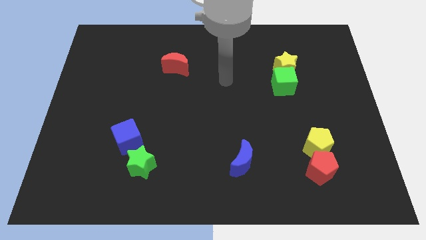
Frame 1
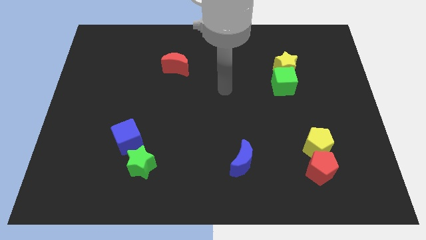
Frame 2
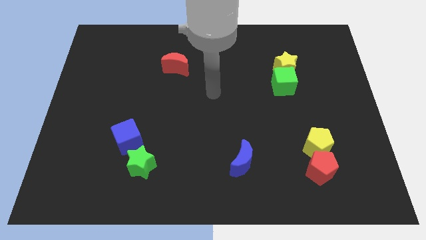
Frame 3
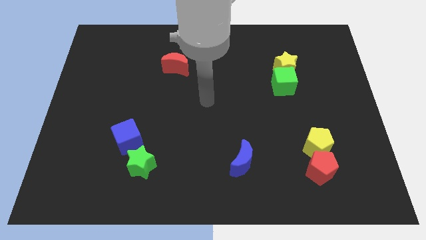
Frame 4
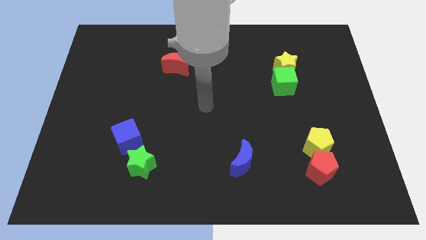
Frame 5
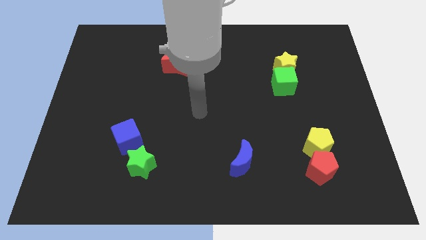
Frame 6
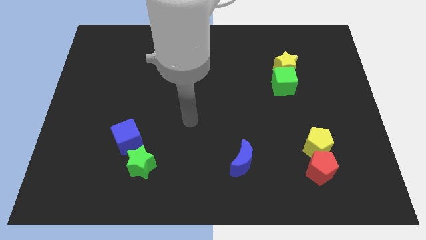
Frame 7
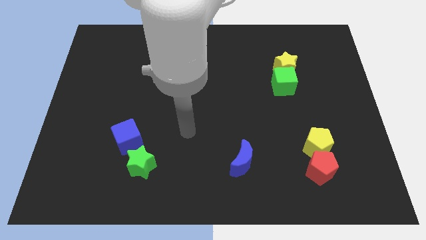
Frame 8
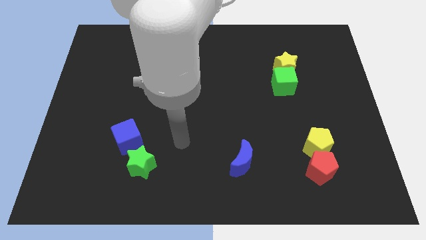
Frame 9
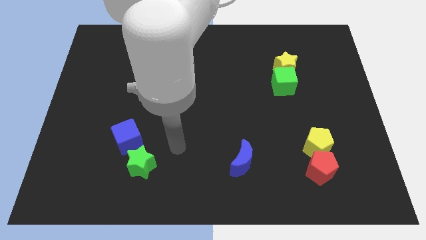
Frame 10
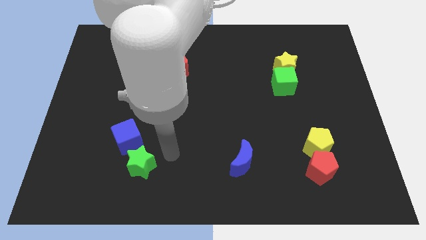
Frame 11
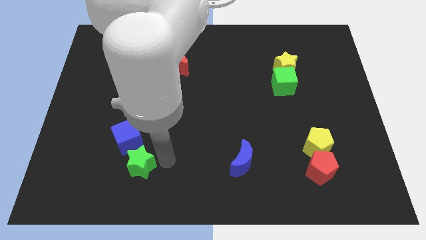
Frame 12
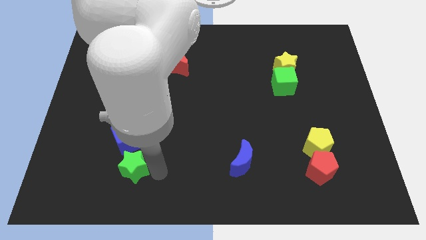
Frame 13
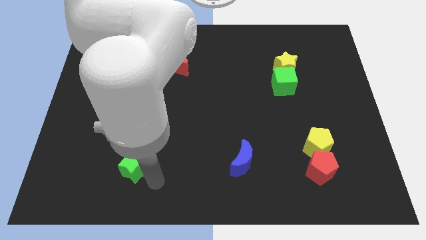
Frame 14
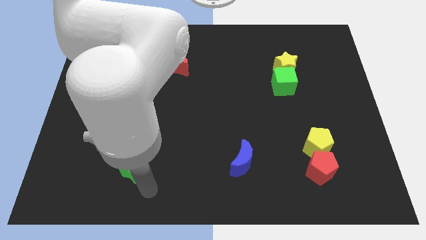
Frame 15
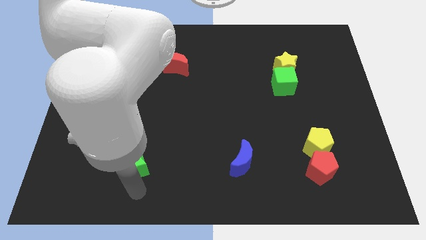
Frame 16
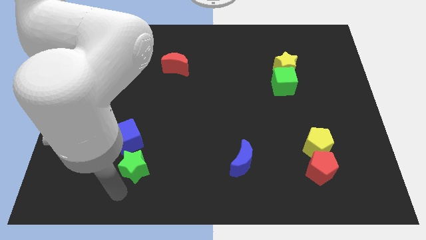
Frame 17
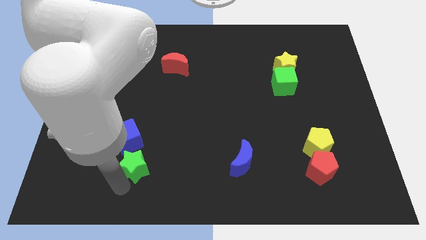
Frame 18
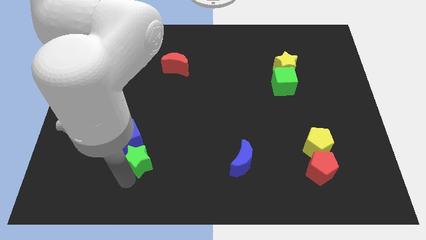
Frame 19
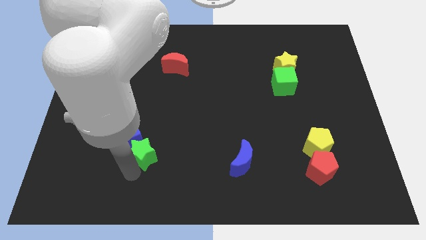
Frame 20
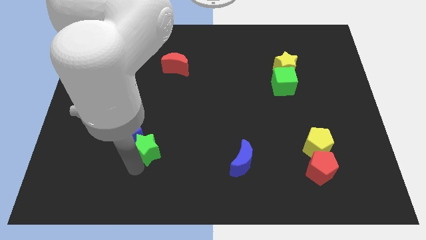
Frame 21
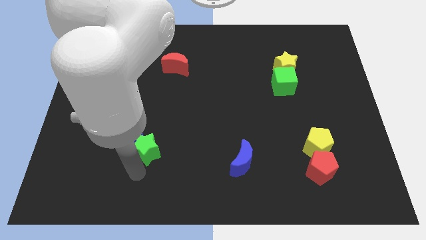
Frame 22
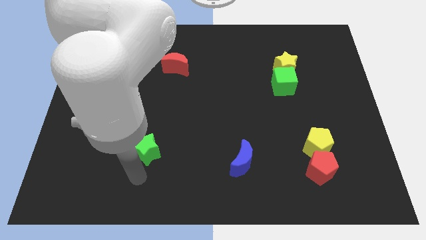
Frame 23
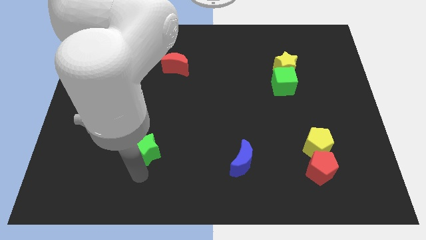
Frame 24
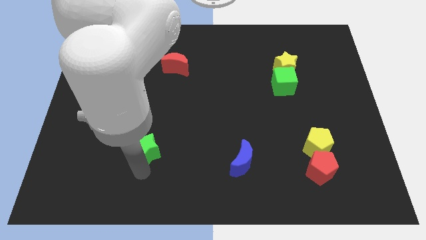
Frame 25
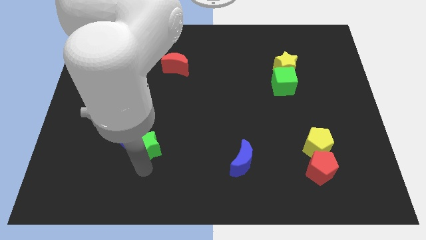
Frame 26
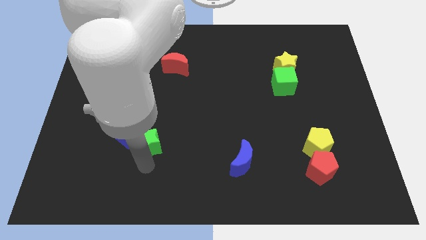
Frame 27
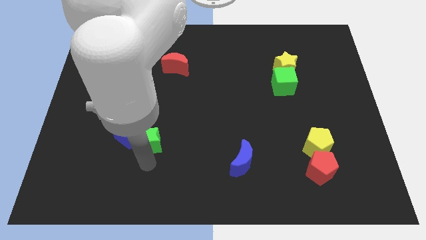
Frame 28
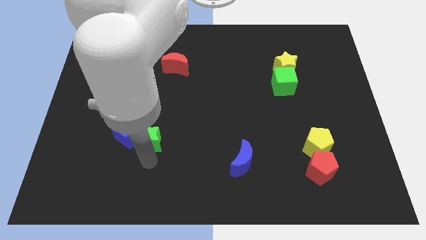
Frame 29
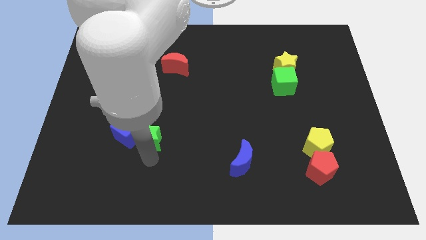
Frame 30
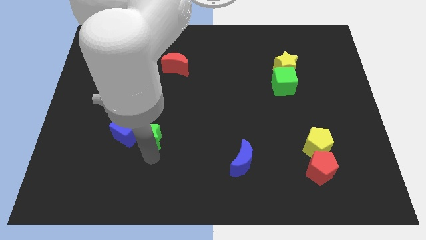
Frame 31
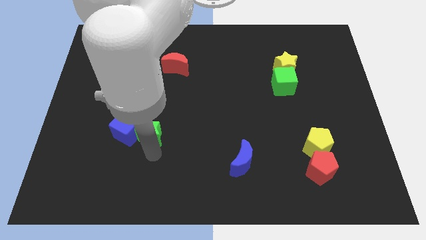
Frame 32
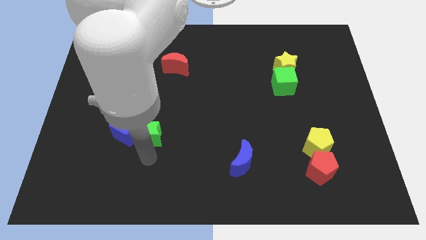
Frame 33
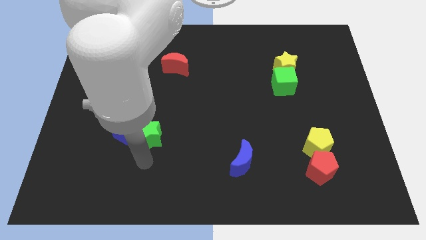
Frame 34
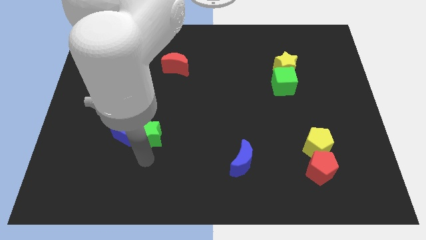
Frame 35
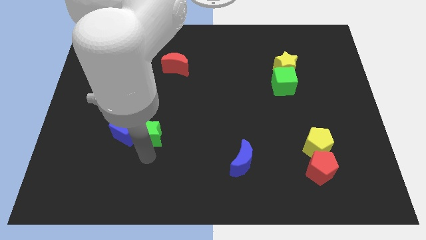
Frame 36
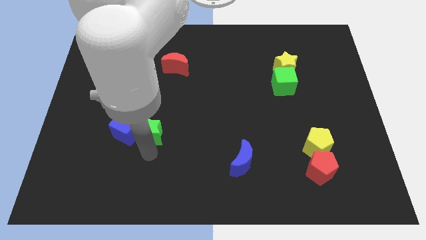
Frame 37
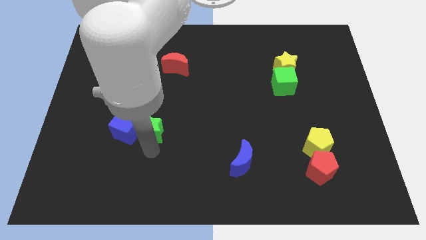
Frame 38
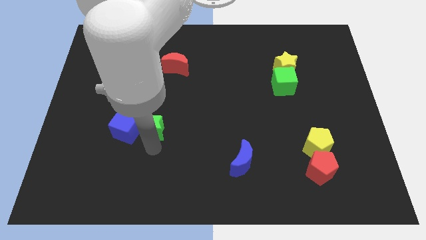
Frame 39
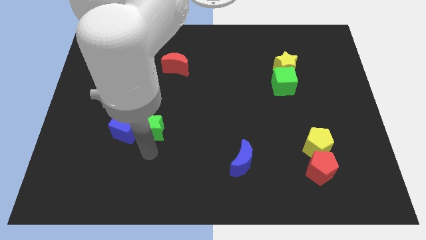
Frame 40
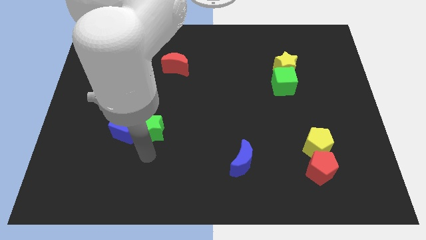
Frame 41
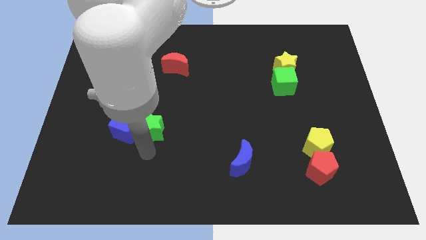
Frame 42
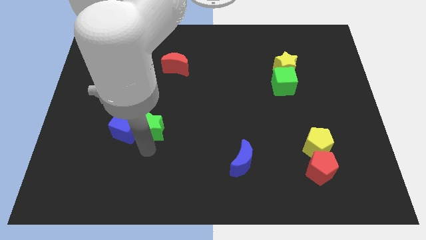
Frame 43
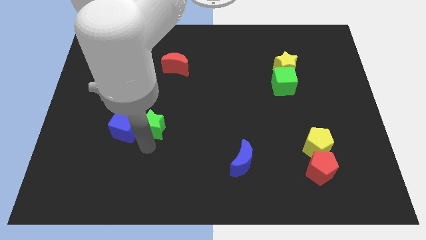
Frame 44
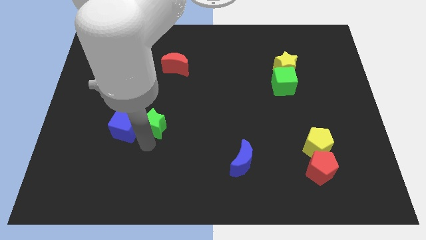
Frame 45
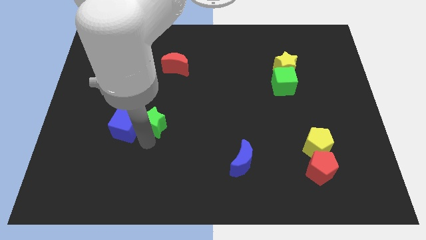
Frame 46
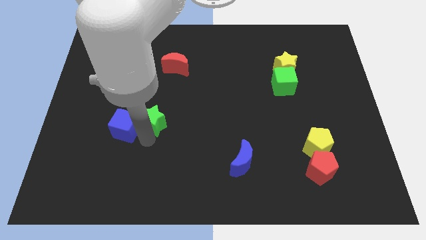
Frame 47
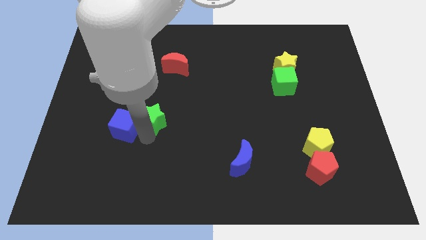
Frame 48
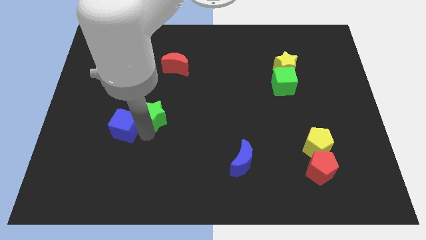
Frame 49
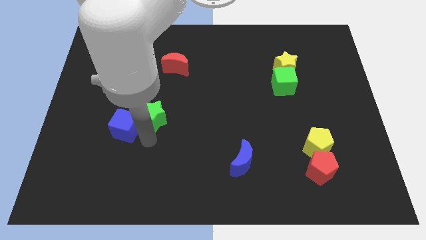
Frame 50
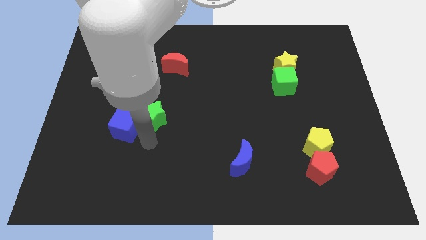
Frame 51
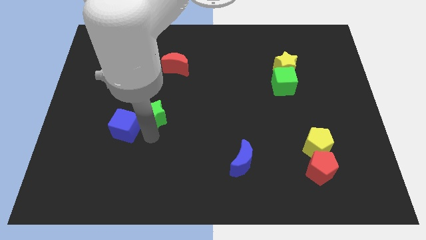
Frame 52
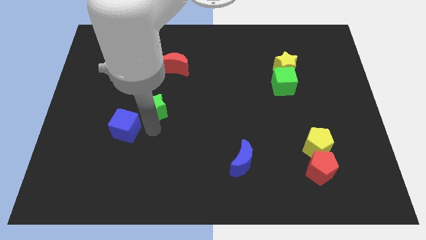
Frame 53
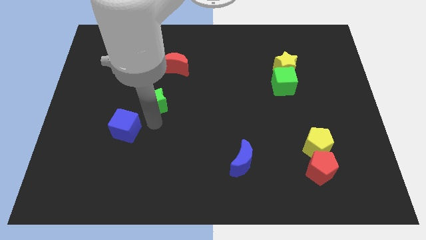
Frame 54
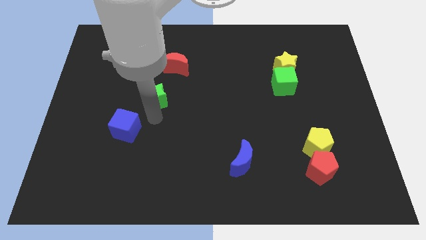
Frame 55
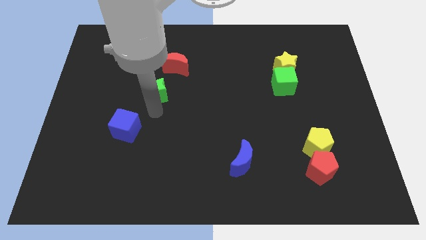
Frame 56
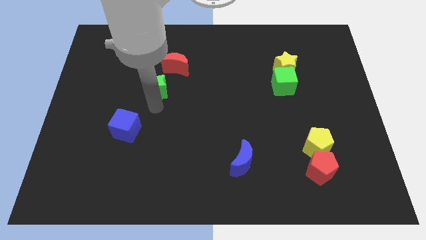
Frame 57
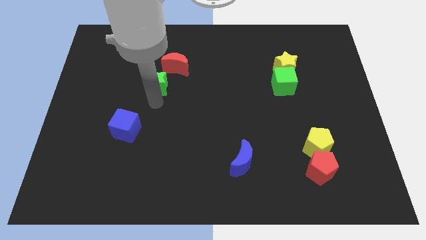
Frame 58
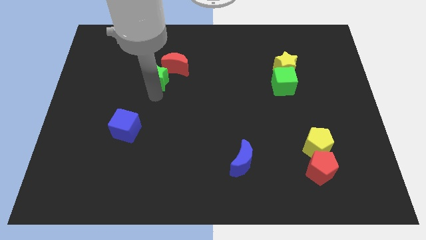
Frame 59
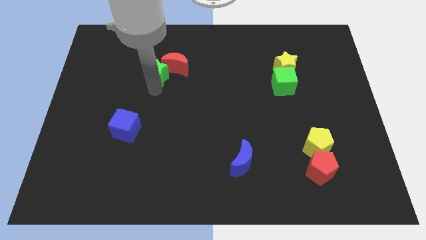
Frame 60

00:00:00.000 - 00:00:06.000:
push the green star next to the red moon

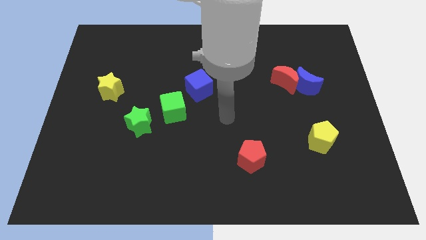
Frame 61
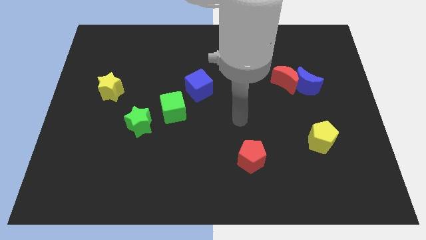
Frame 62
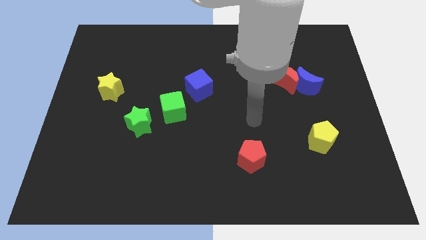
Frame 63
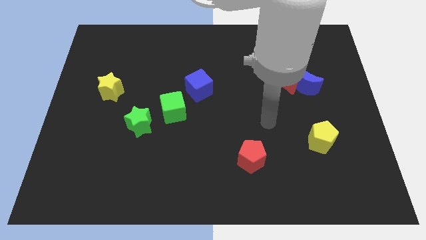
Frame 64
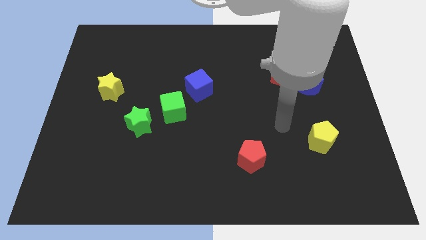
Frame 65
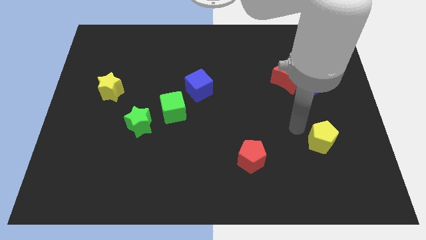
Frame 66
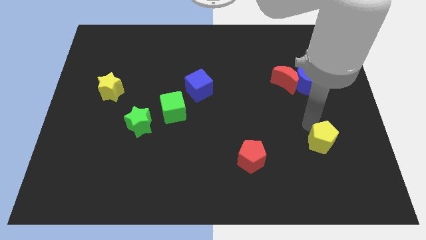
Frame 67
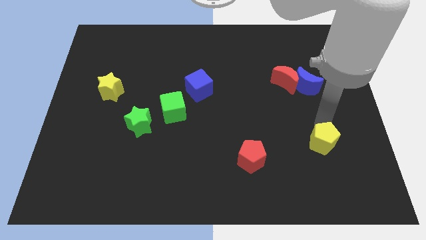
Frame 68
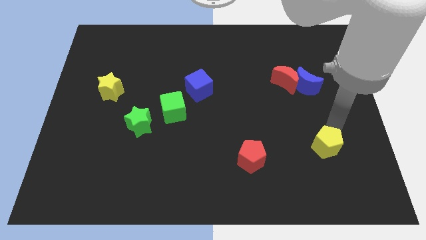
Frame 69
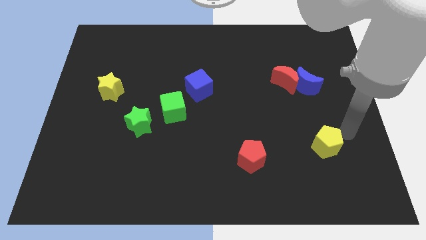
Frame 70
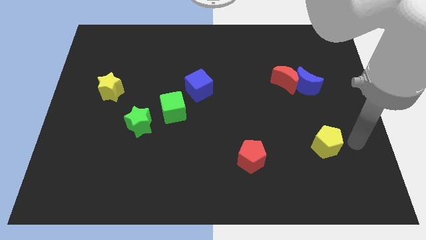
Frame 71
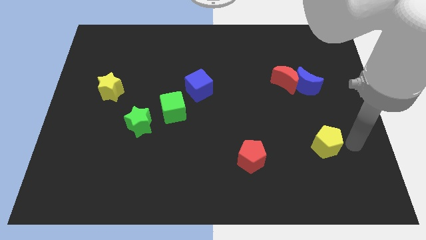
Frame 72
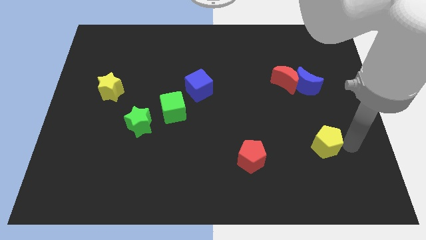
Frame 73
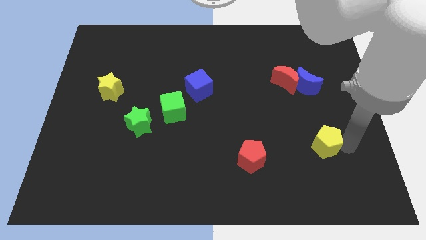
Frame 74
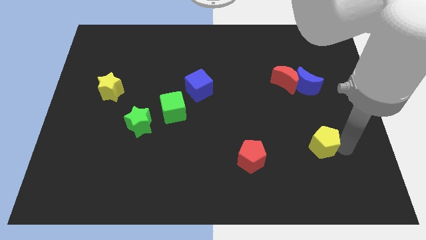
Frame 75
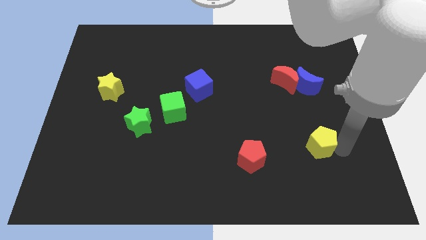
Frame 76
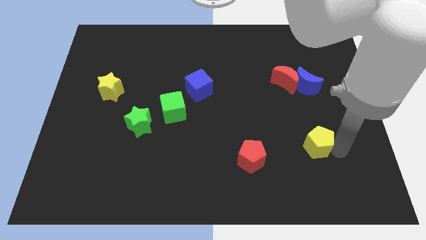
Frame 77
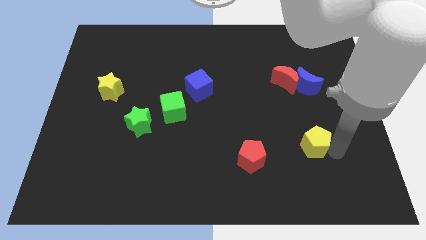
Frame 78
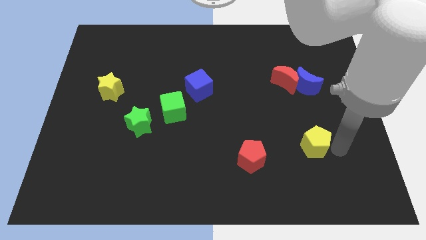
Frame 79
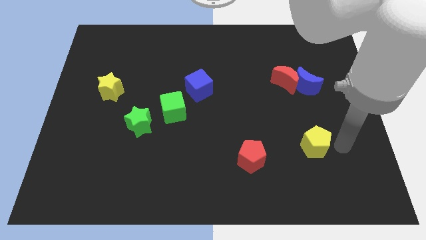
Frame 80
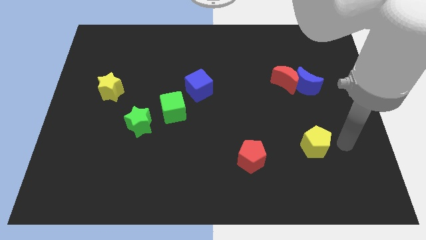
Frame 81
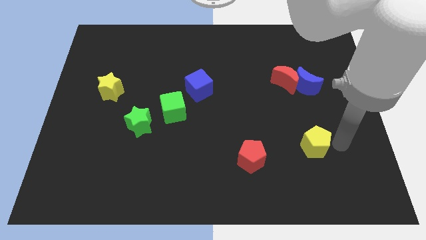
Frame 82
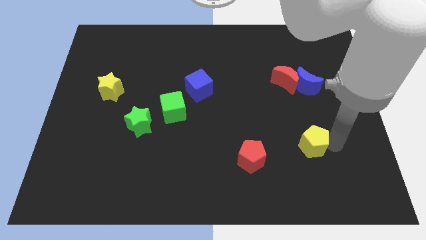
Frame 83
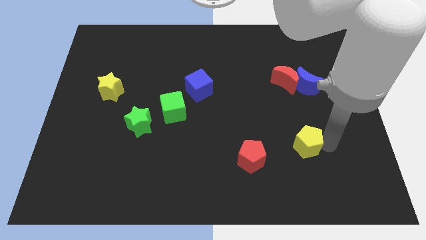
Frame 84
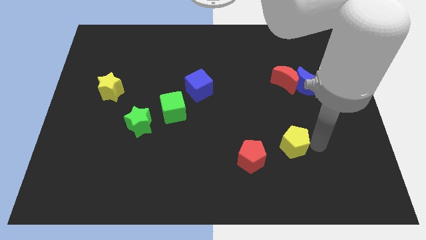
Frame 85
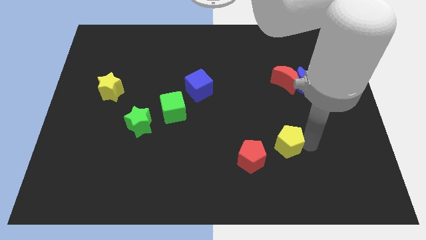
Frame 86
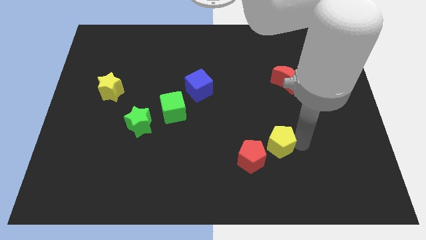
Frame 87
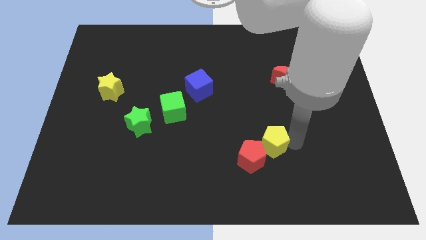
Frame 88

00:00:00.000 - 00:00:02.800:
push the yellow pentagon next to the red pentagon
